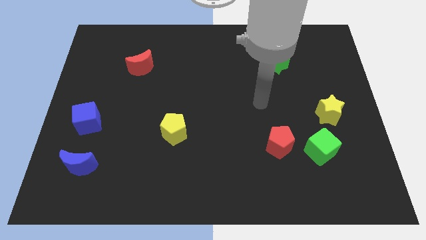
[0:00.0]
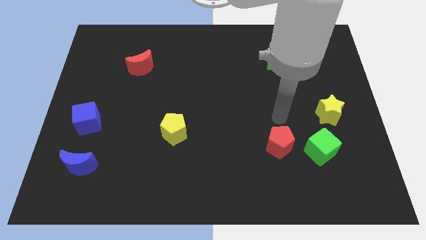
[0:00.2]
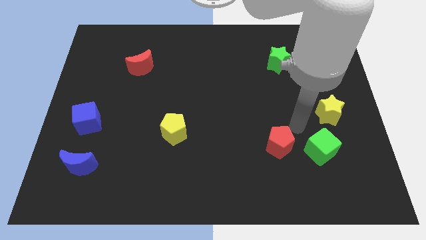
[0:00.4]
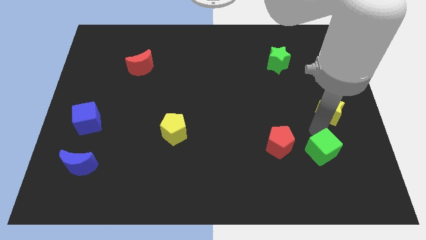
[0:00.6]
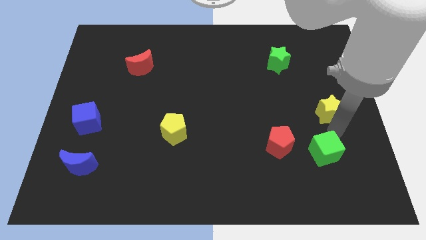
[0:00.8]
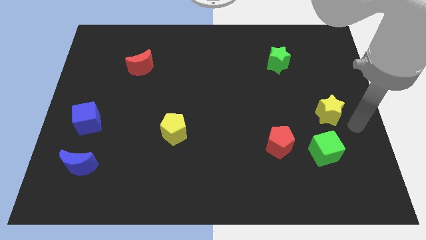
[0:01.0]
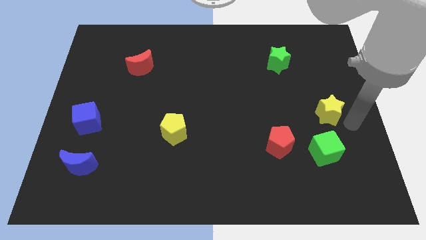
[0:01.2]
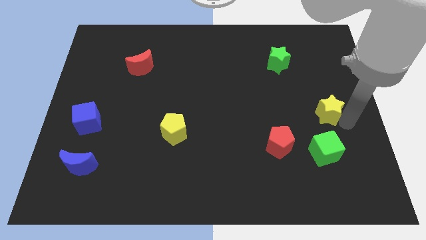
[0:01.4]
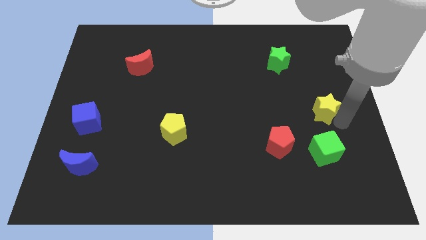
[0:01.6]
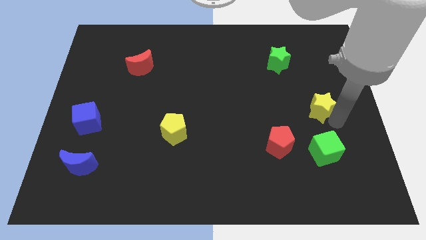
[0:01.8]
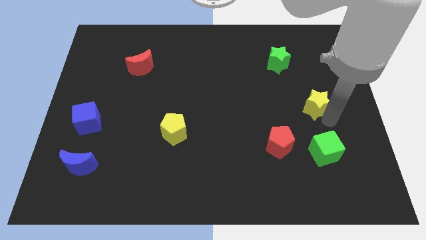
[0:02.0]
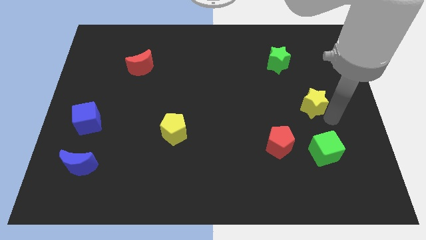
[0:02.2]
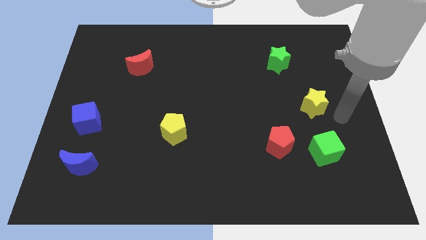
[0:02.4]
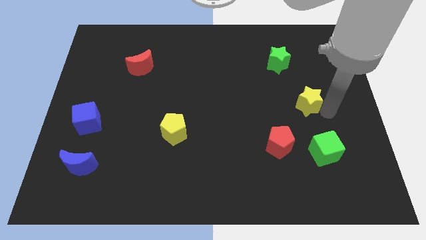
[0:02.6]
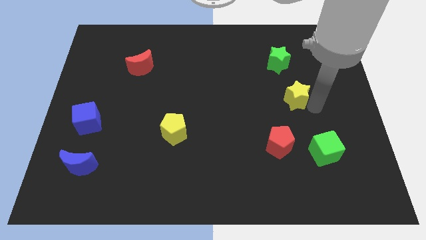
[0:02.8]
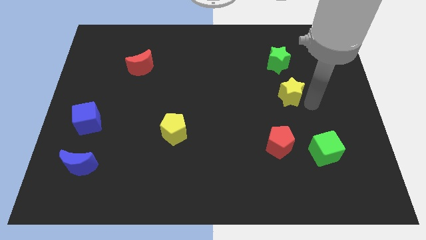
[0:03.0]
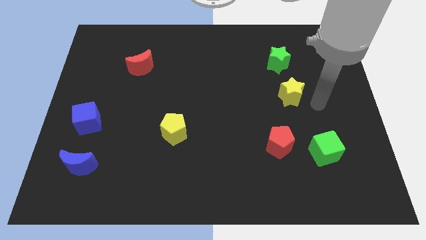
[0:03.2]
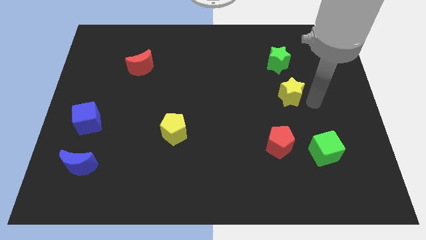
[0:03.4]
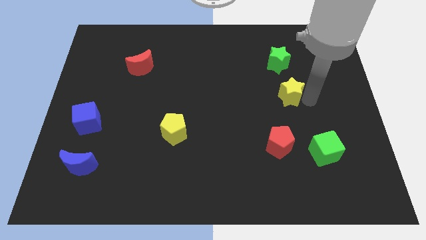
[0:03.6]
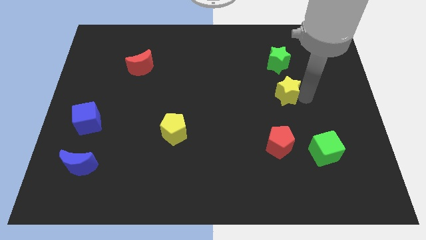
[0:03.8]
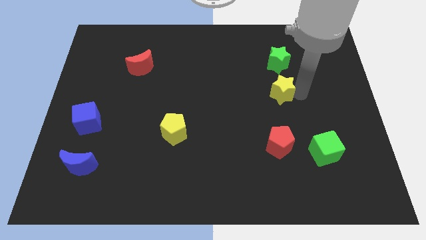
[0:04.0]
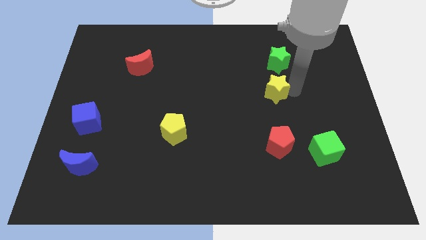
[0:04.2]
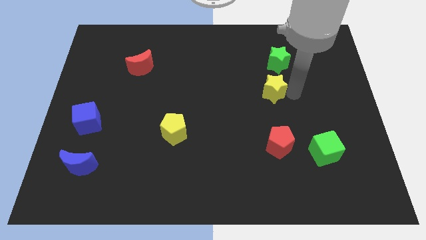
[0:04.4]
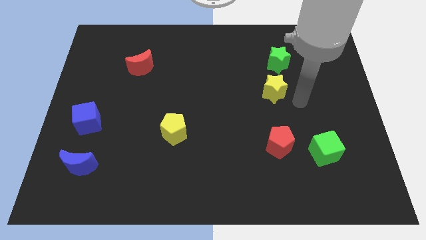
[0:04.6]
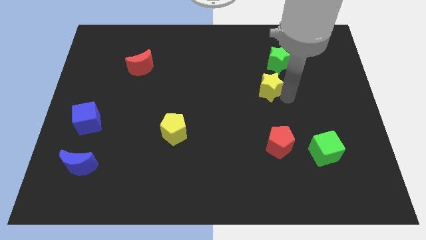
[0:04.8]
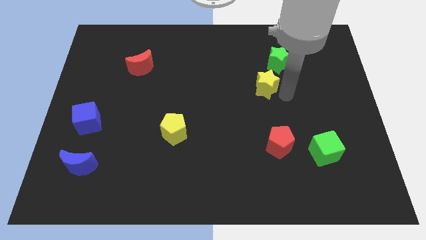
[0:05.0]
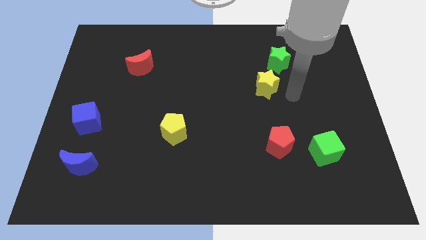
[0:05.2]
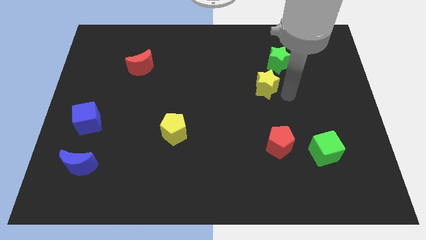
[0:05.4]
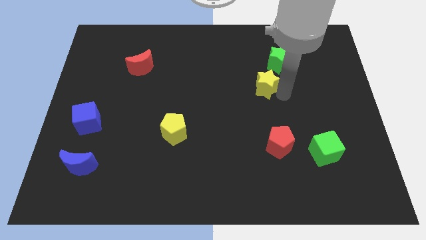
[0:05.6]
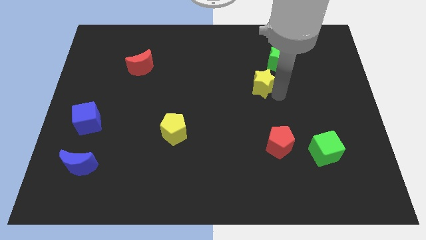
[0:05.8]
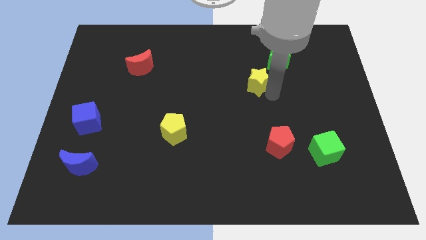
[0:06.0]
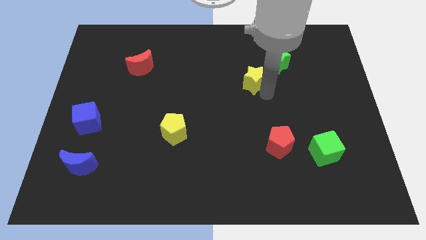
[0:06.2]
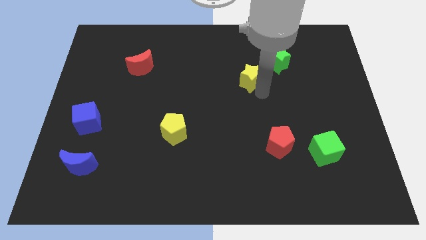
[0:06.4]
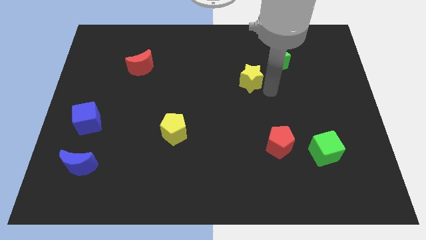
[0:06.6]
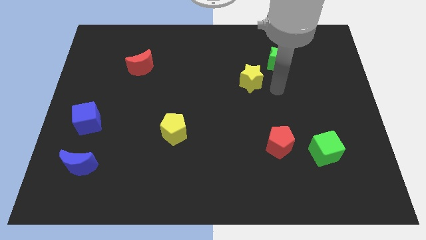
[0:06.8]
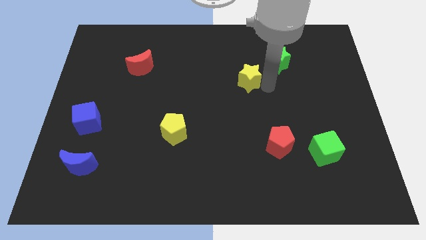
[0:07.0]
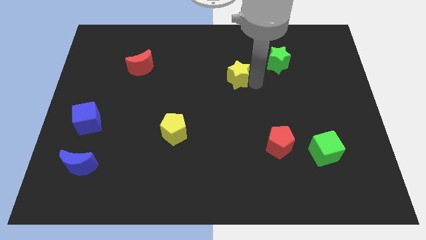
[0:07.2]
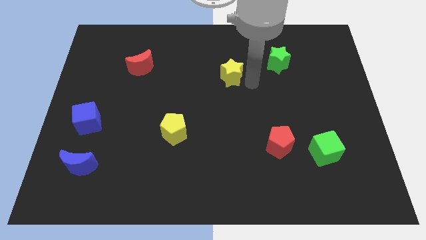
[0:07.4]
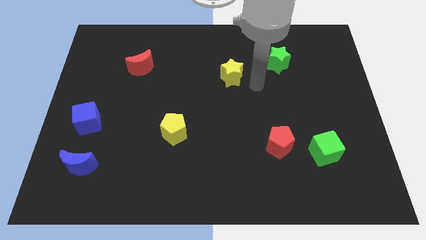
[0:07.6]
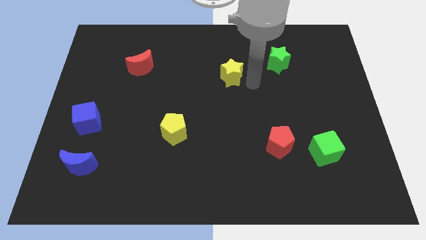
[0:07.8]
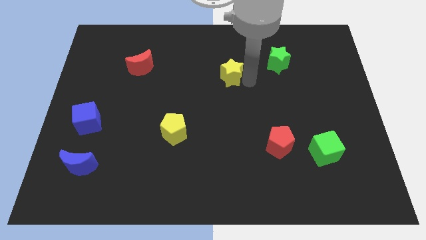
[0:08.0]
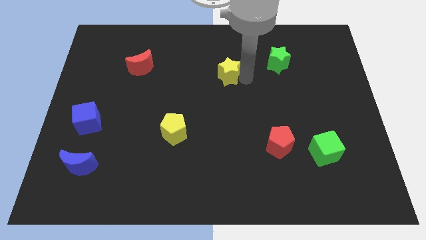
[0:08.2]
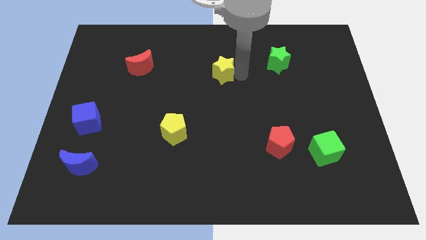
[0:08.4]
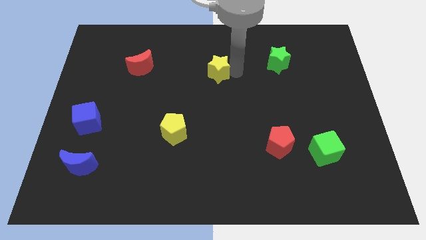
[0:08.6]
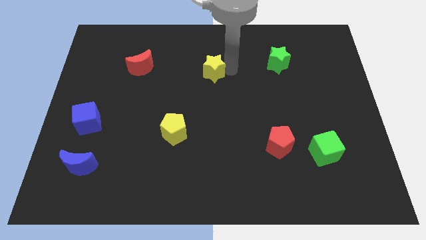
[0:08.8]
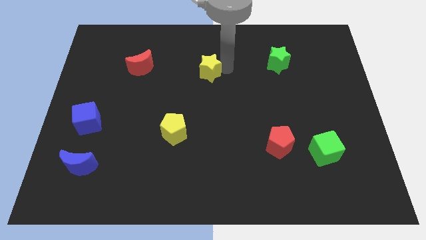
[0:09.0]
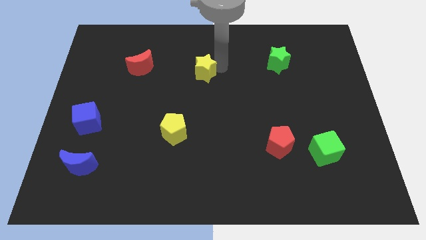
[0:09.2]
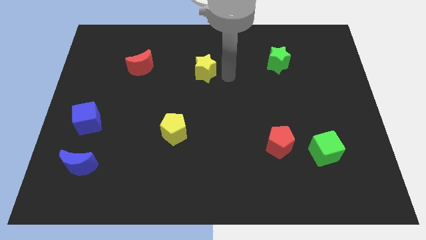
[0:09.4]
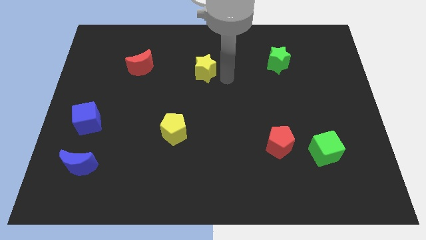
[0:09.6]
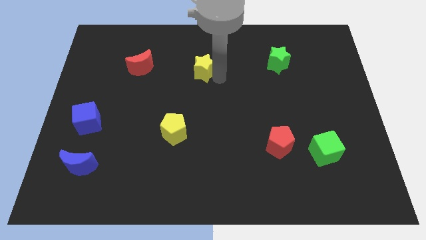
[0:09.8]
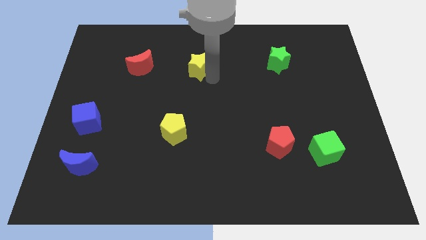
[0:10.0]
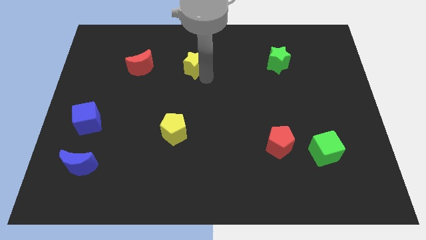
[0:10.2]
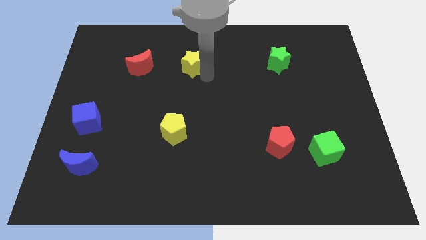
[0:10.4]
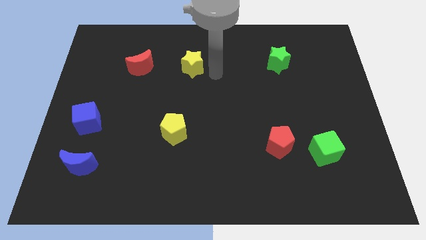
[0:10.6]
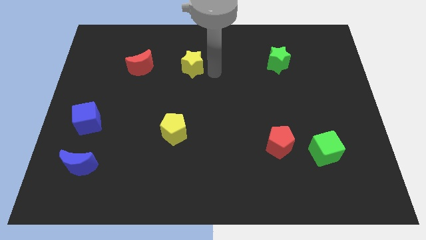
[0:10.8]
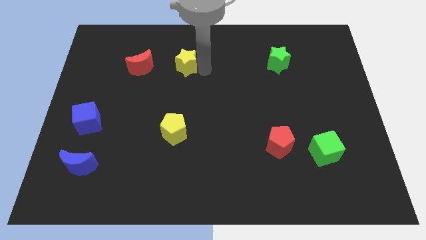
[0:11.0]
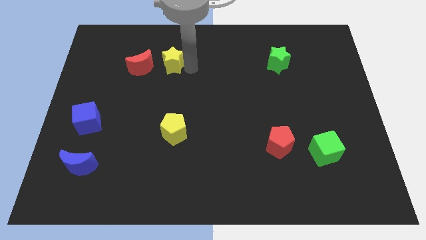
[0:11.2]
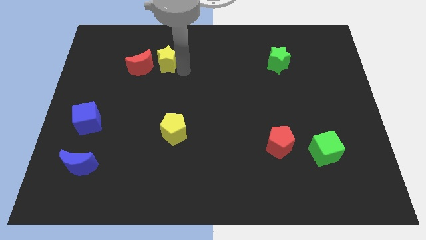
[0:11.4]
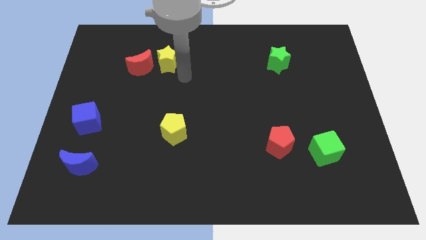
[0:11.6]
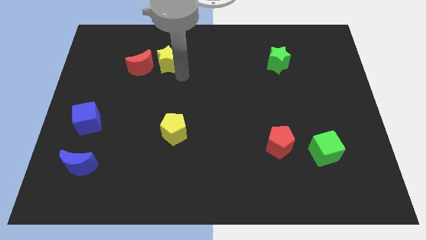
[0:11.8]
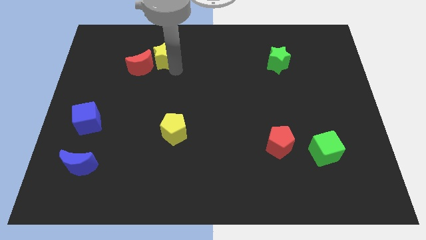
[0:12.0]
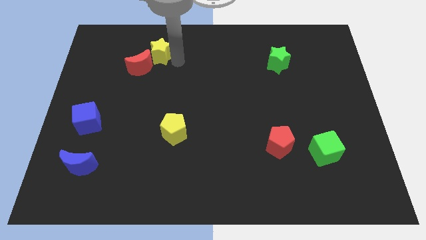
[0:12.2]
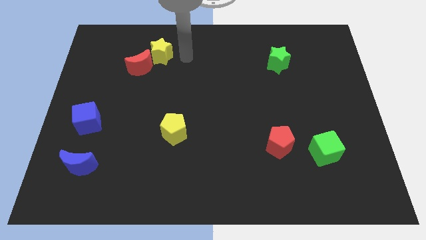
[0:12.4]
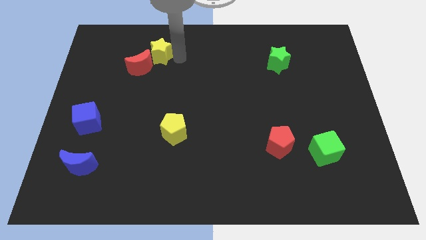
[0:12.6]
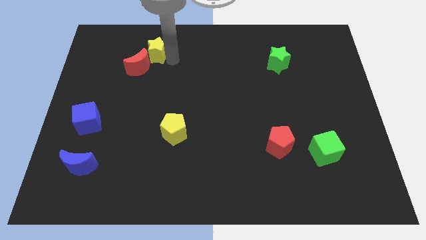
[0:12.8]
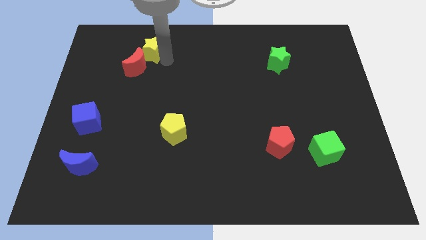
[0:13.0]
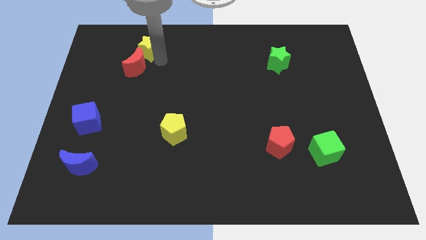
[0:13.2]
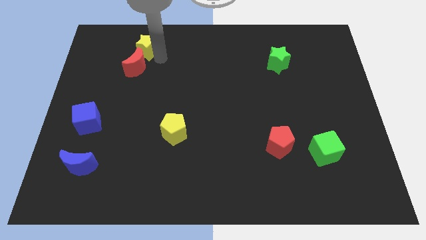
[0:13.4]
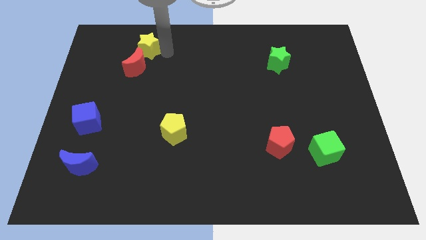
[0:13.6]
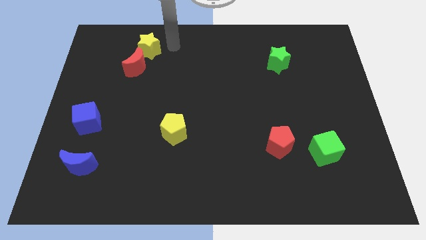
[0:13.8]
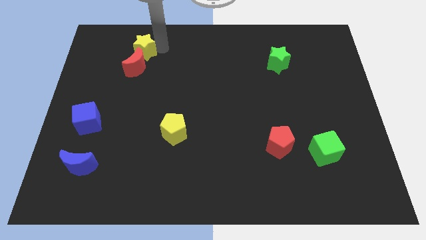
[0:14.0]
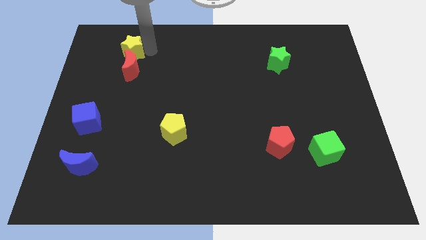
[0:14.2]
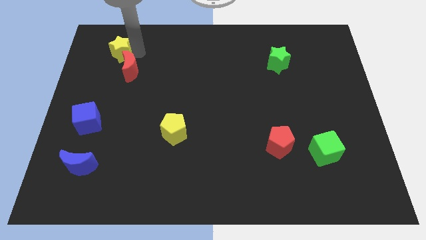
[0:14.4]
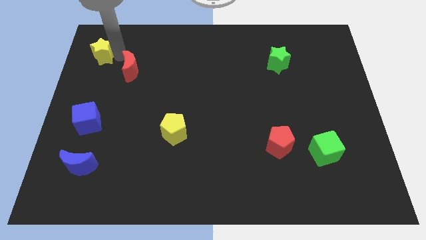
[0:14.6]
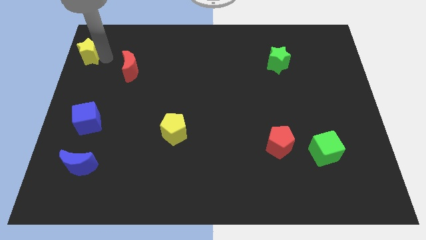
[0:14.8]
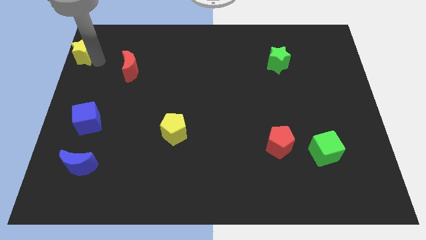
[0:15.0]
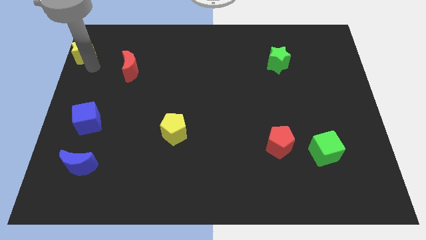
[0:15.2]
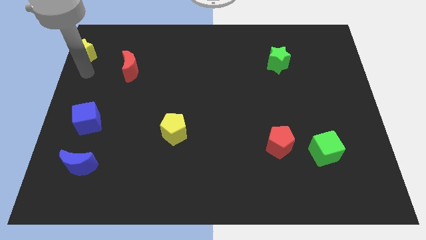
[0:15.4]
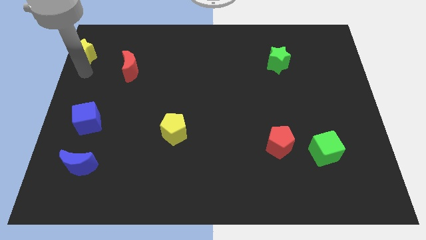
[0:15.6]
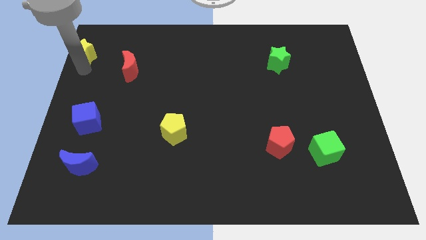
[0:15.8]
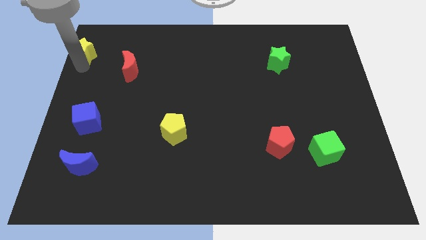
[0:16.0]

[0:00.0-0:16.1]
put the yellow star to the top left of the board
